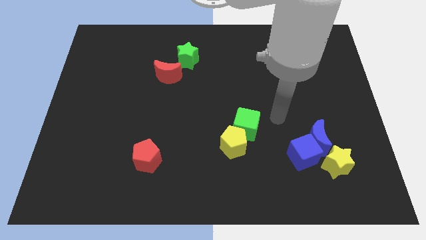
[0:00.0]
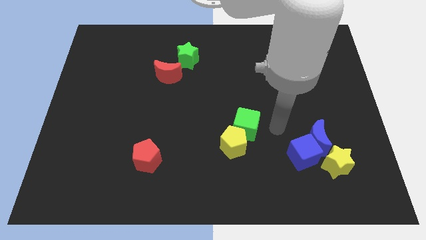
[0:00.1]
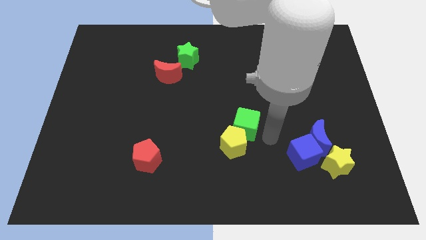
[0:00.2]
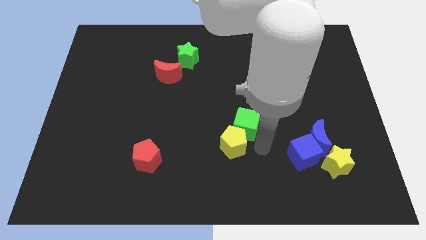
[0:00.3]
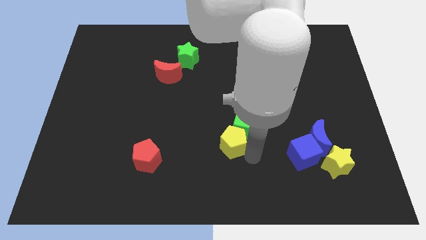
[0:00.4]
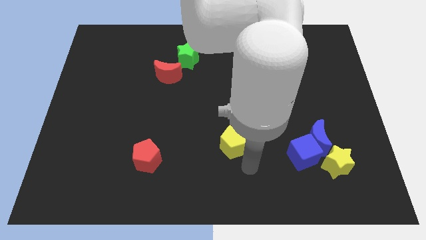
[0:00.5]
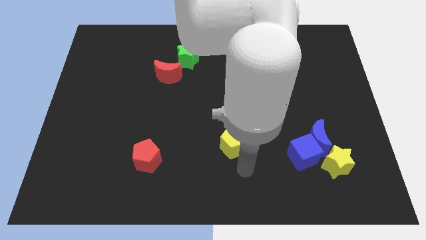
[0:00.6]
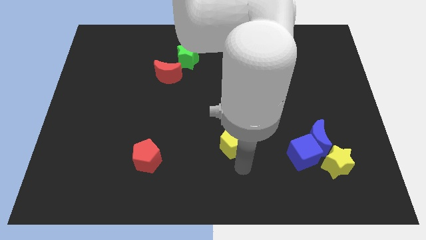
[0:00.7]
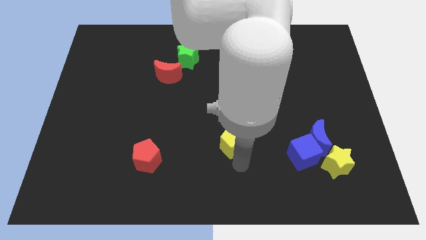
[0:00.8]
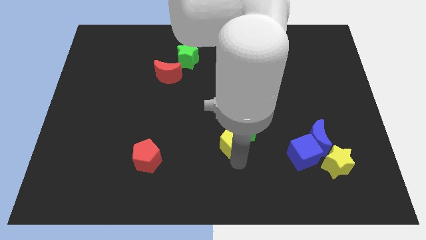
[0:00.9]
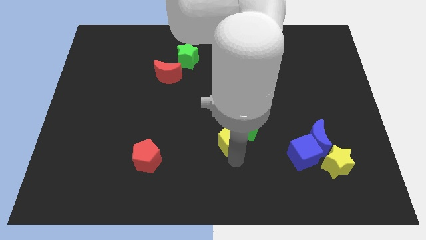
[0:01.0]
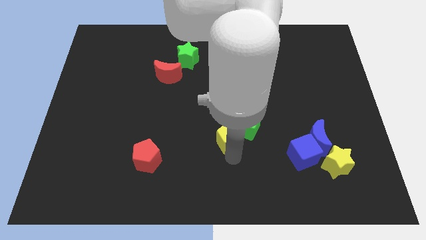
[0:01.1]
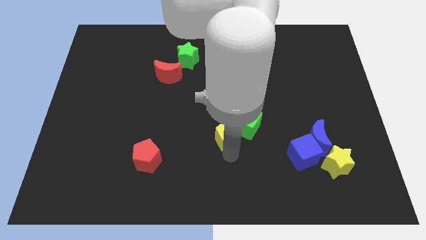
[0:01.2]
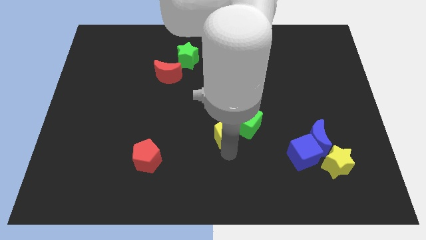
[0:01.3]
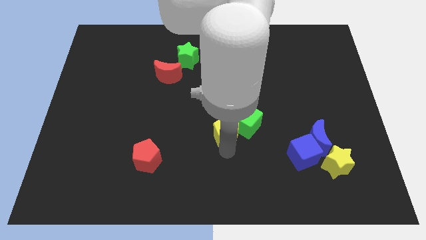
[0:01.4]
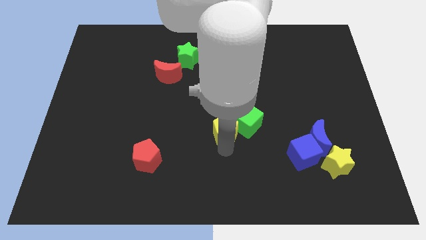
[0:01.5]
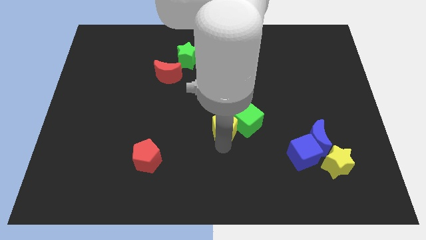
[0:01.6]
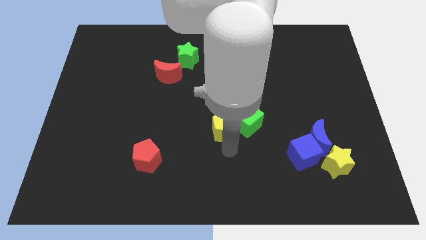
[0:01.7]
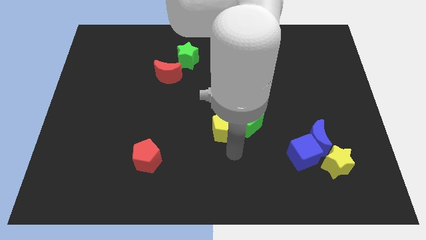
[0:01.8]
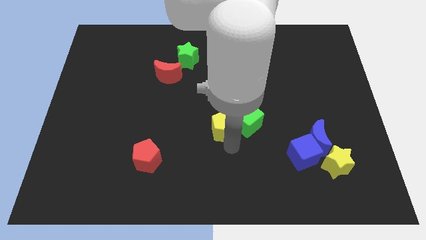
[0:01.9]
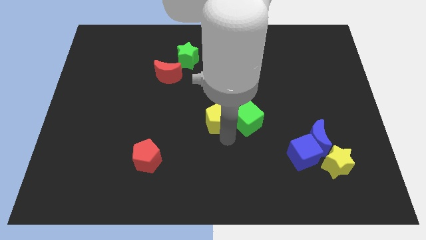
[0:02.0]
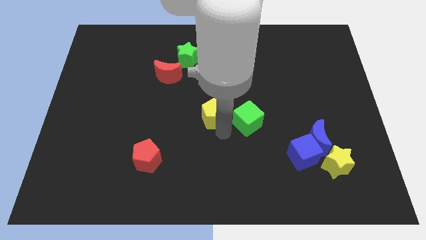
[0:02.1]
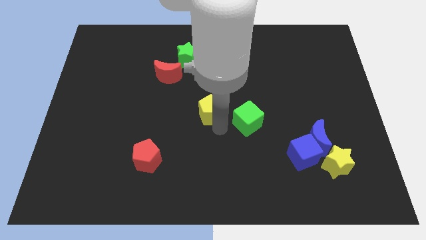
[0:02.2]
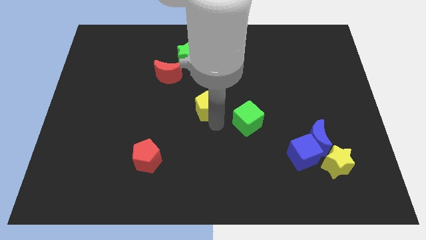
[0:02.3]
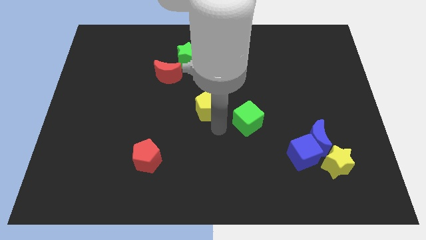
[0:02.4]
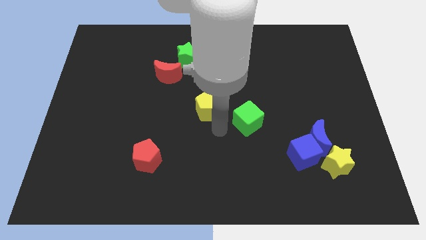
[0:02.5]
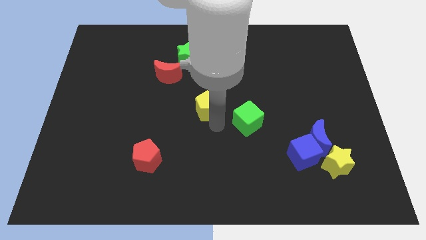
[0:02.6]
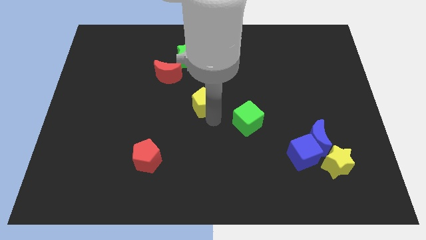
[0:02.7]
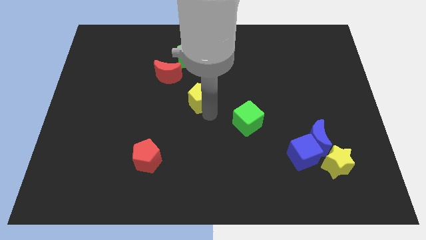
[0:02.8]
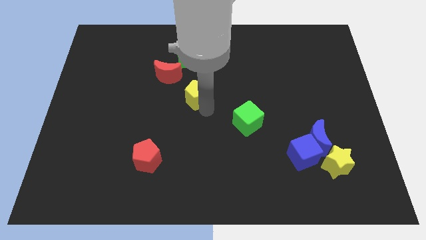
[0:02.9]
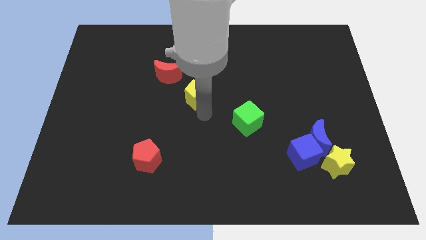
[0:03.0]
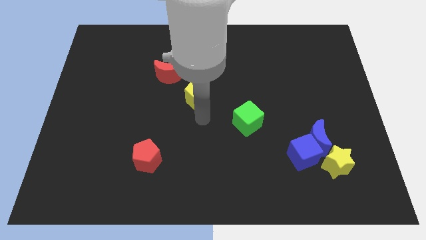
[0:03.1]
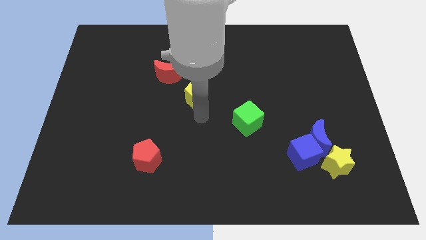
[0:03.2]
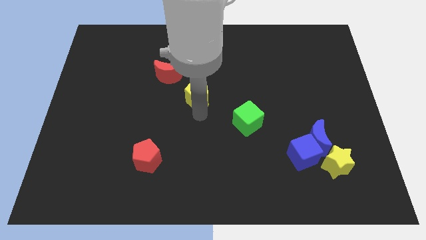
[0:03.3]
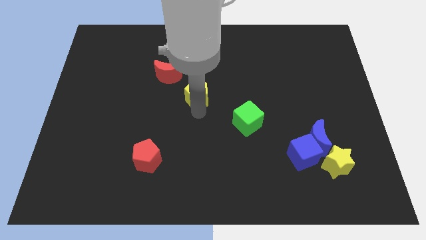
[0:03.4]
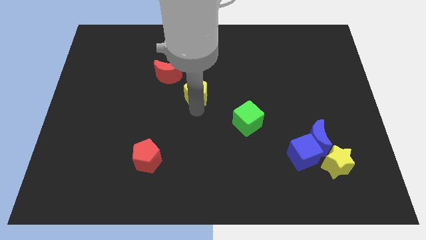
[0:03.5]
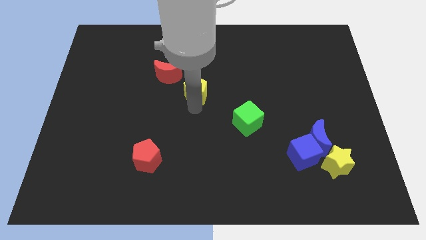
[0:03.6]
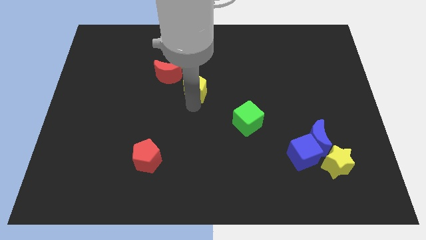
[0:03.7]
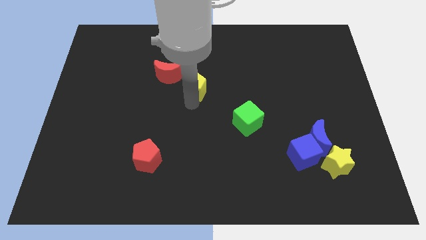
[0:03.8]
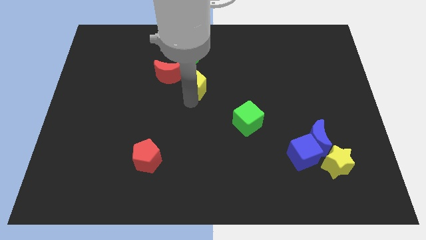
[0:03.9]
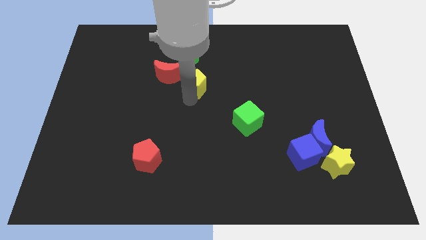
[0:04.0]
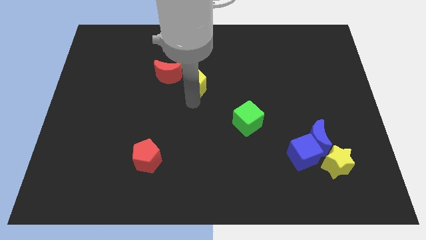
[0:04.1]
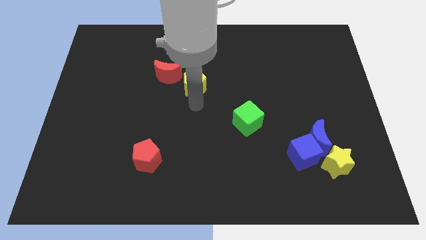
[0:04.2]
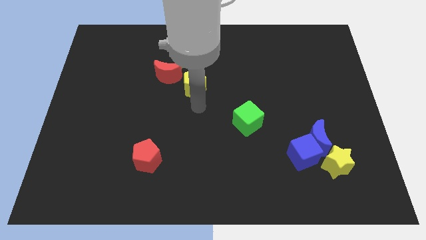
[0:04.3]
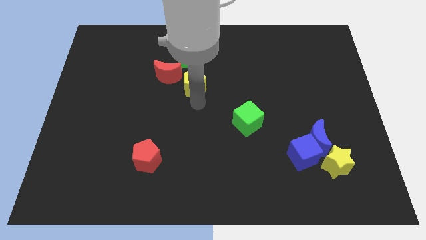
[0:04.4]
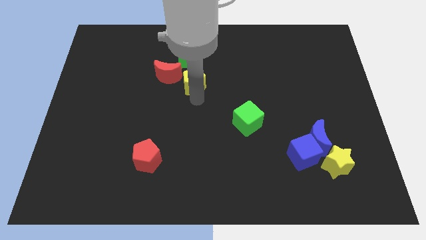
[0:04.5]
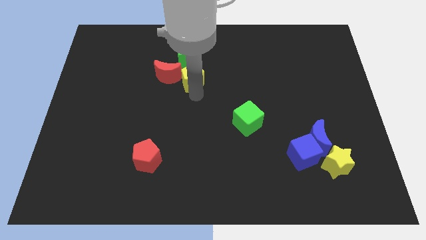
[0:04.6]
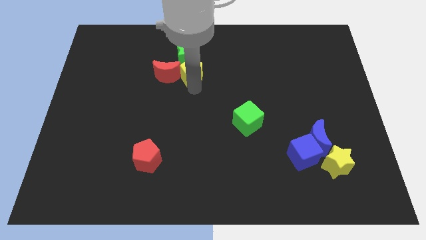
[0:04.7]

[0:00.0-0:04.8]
push the yellow pentagon to the green star

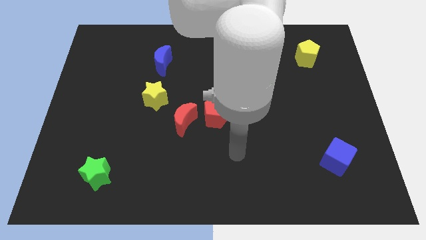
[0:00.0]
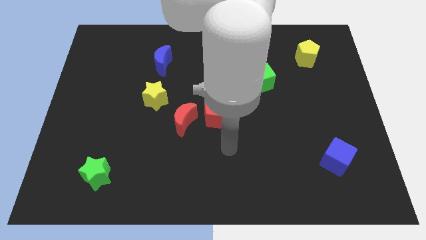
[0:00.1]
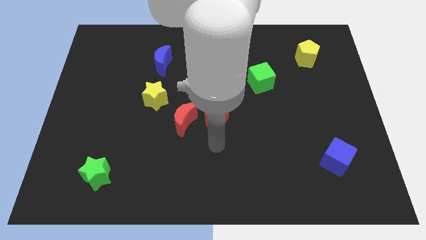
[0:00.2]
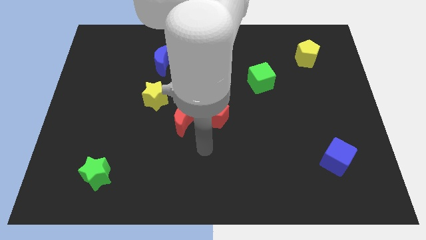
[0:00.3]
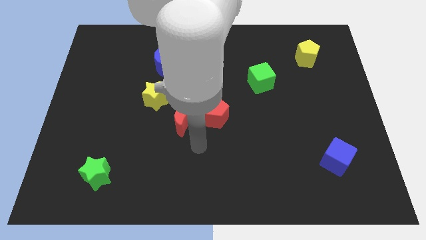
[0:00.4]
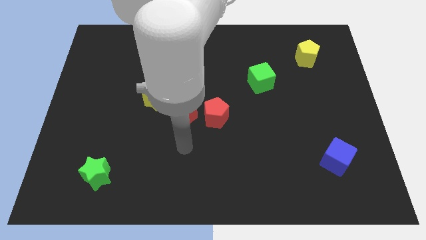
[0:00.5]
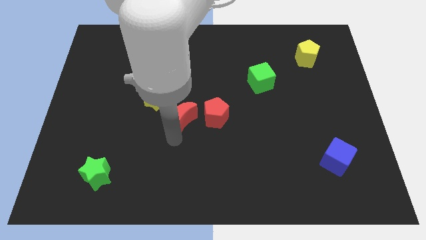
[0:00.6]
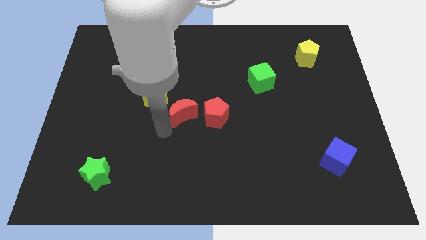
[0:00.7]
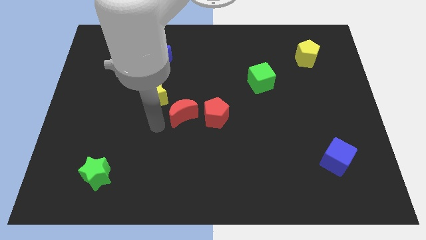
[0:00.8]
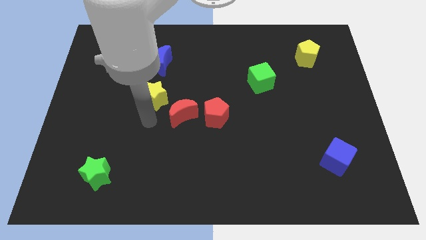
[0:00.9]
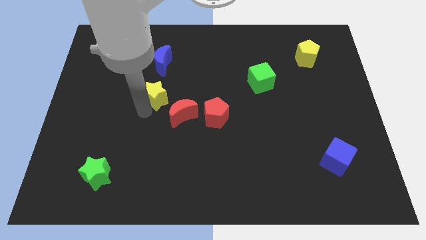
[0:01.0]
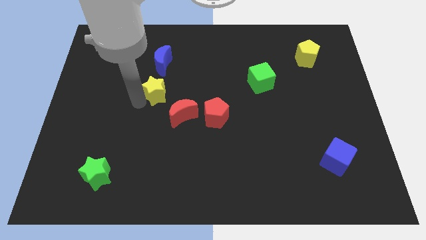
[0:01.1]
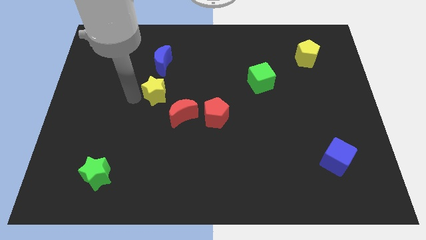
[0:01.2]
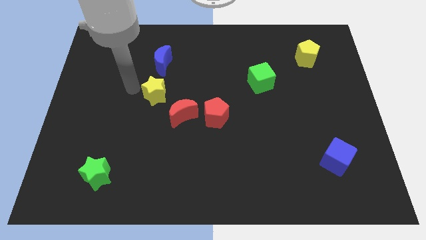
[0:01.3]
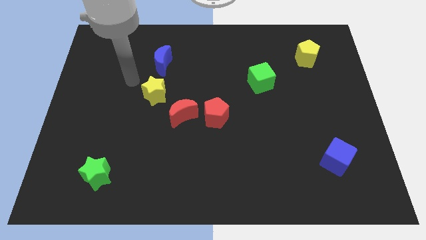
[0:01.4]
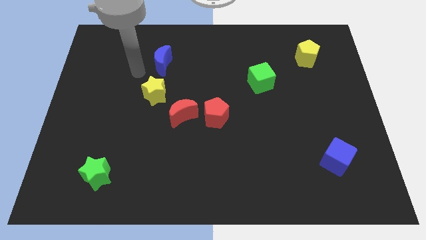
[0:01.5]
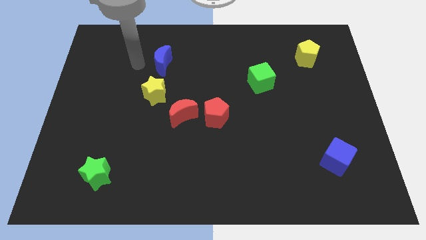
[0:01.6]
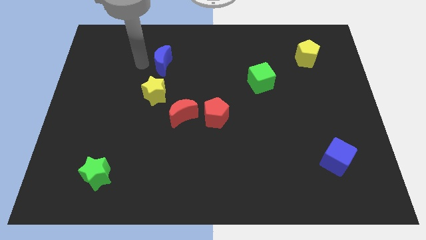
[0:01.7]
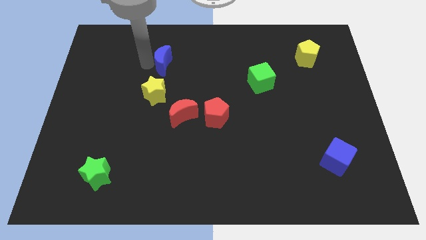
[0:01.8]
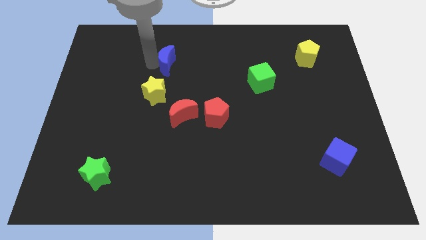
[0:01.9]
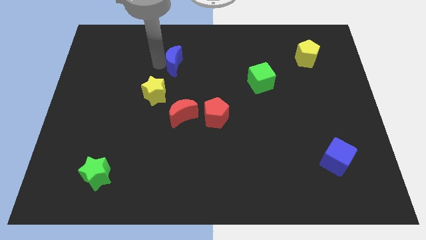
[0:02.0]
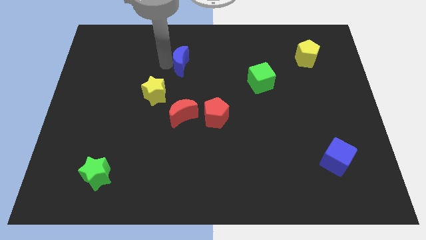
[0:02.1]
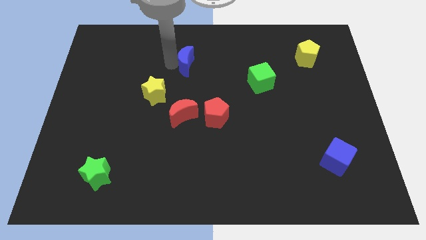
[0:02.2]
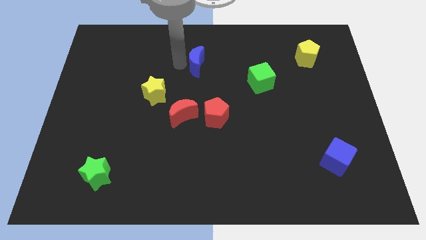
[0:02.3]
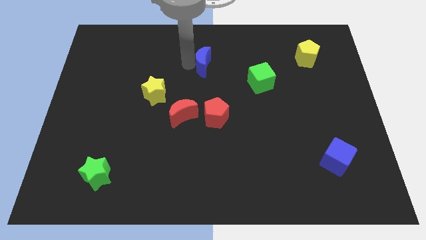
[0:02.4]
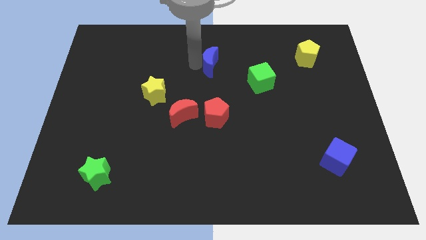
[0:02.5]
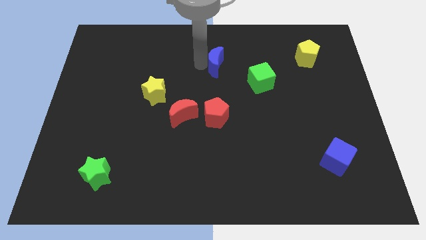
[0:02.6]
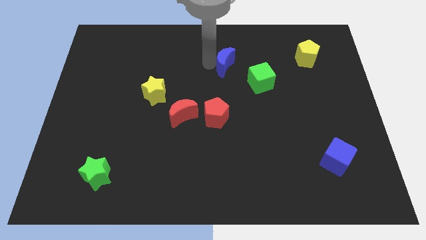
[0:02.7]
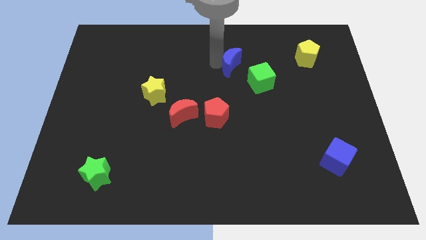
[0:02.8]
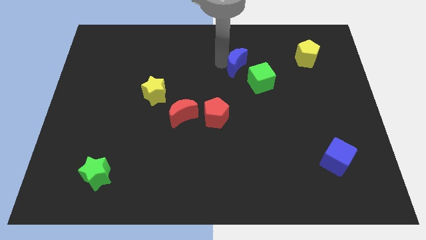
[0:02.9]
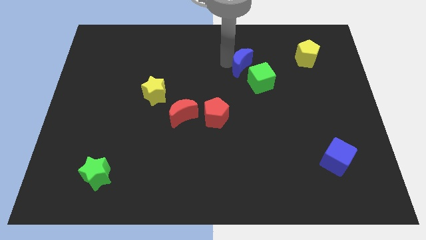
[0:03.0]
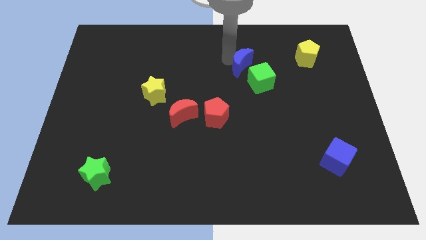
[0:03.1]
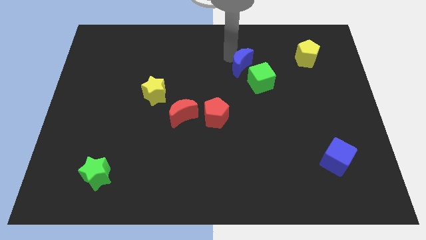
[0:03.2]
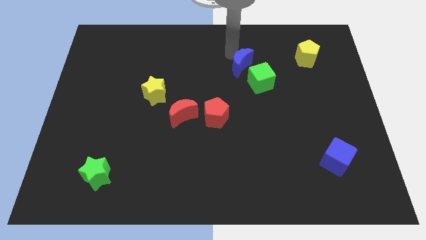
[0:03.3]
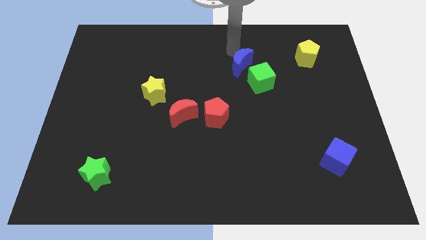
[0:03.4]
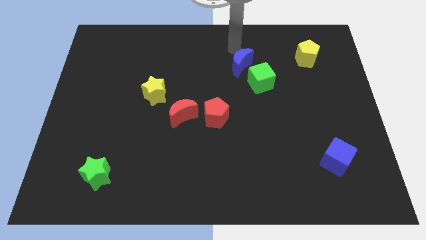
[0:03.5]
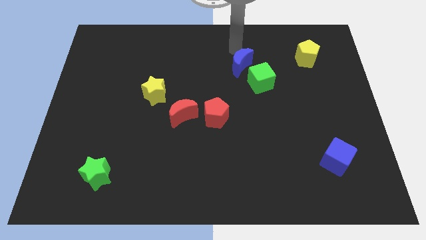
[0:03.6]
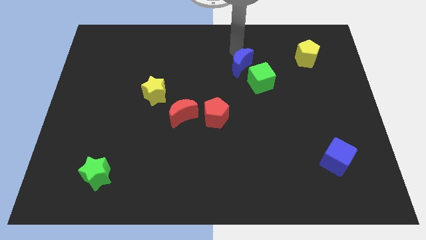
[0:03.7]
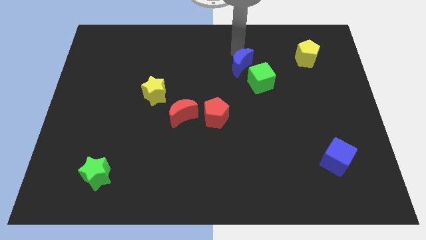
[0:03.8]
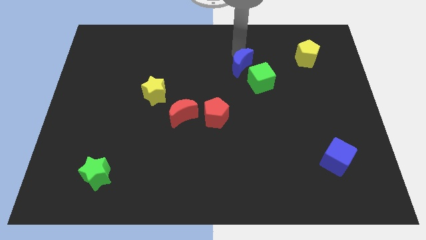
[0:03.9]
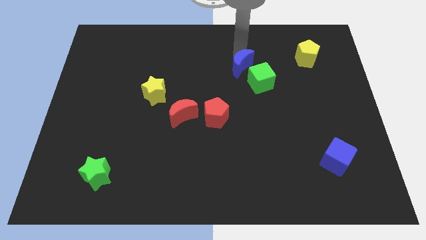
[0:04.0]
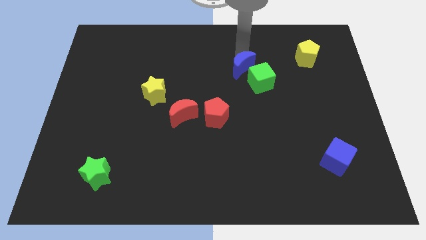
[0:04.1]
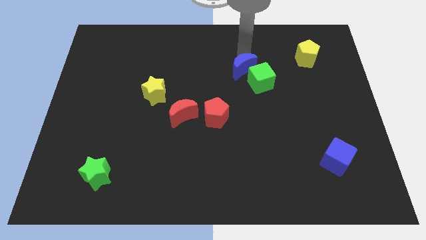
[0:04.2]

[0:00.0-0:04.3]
move the blue moon next to the green cube
